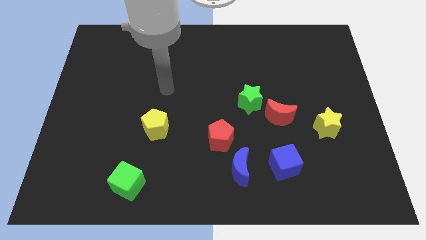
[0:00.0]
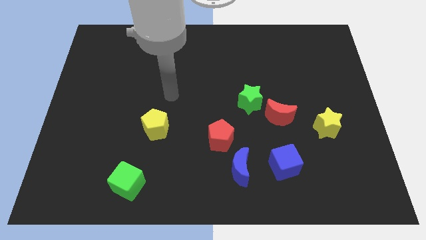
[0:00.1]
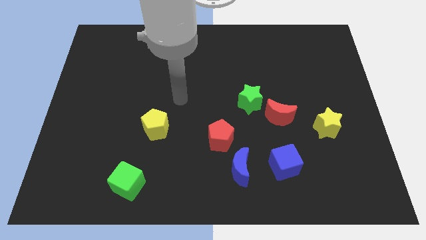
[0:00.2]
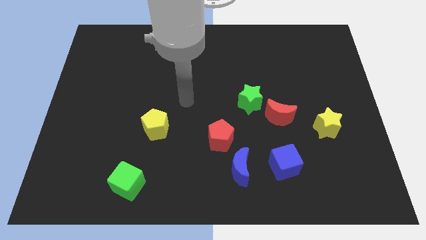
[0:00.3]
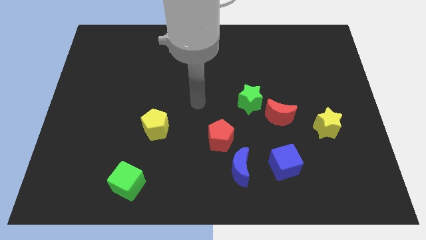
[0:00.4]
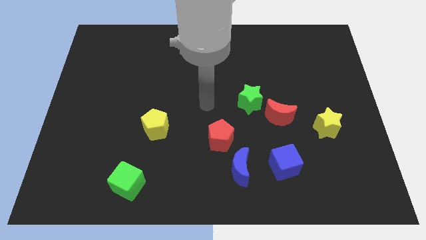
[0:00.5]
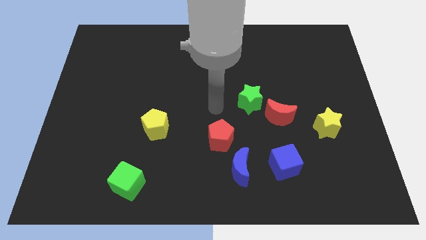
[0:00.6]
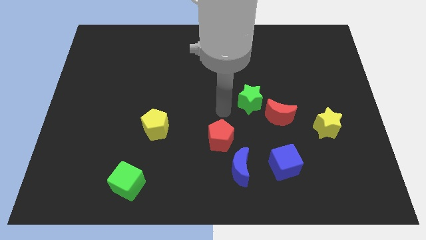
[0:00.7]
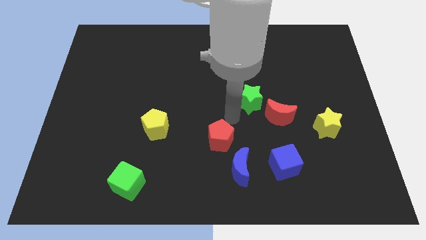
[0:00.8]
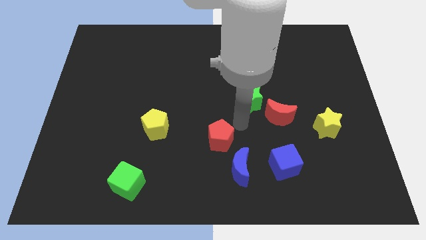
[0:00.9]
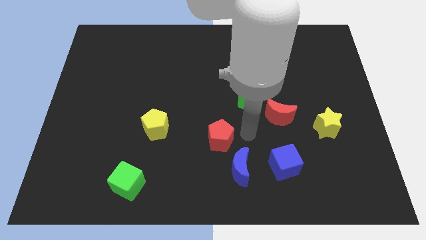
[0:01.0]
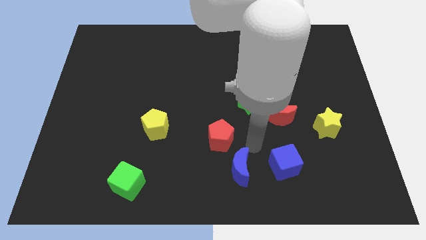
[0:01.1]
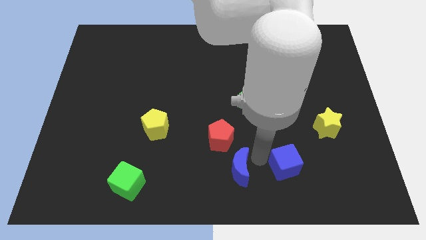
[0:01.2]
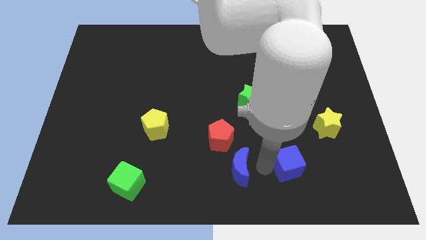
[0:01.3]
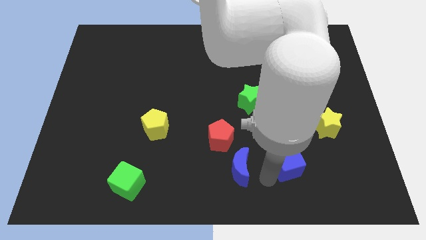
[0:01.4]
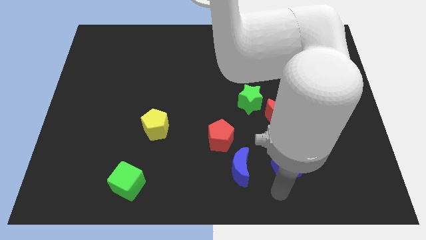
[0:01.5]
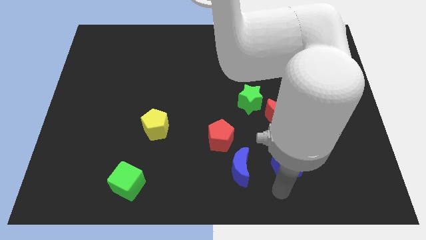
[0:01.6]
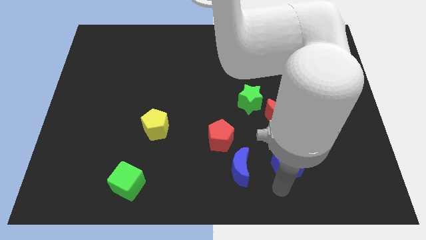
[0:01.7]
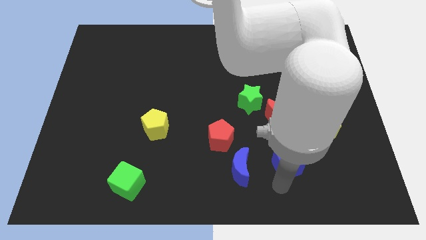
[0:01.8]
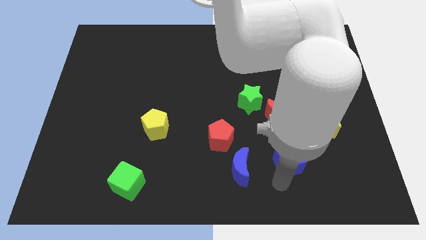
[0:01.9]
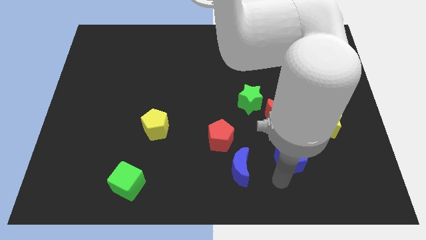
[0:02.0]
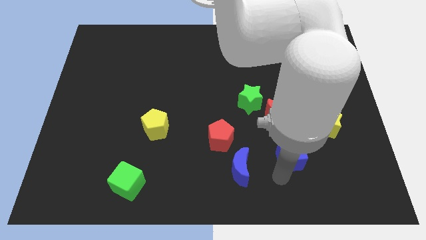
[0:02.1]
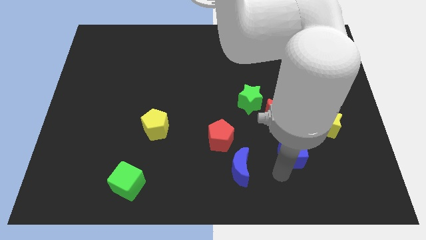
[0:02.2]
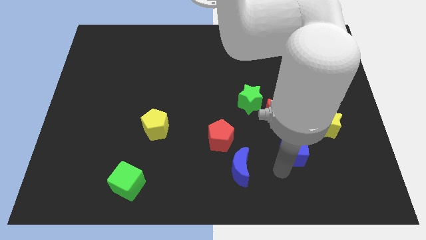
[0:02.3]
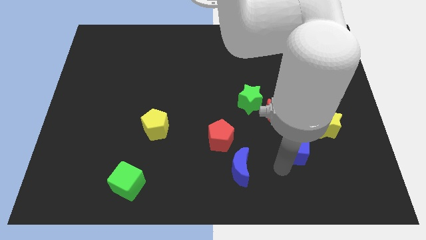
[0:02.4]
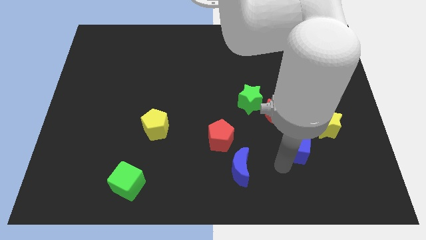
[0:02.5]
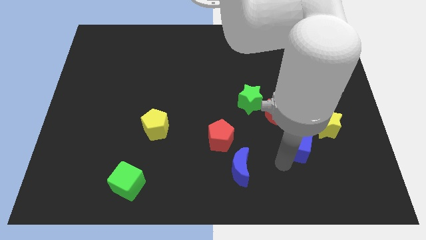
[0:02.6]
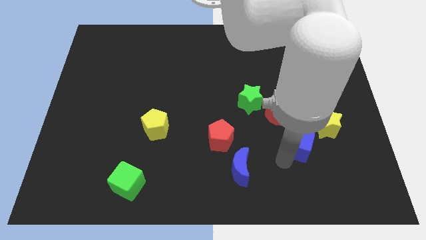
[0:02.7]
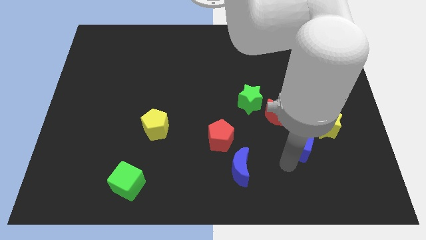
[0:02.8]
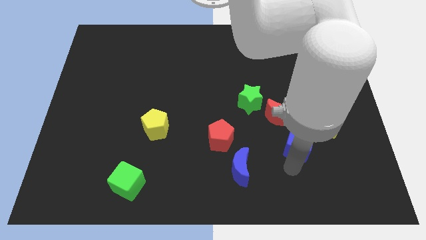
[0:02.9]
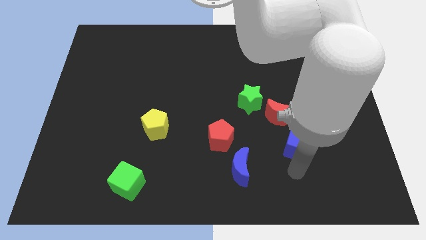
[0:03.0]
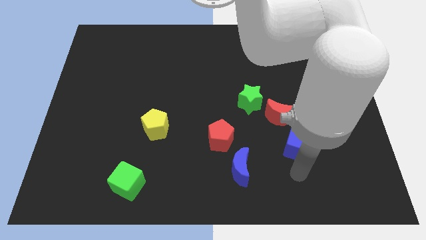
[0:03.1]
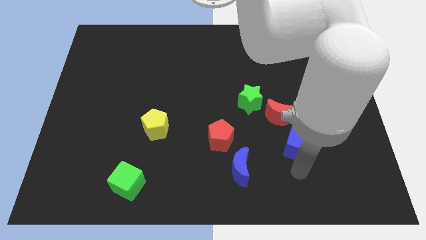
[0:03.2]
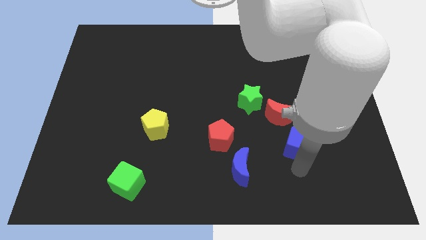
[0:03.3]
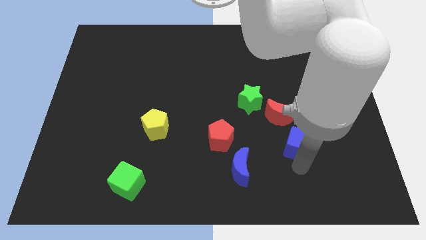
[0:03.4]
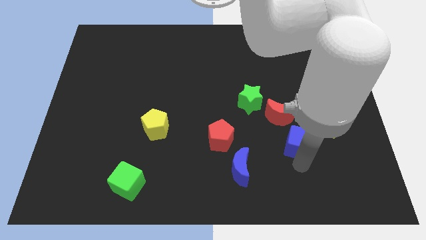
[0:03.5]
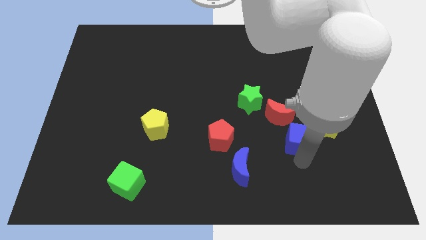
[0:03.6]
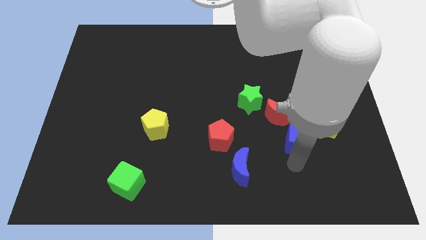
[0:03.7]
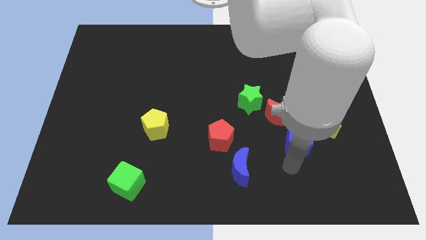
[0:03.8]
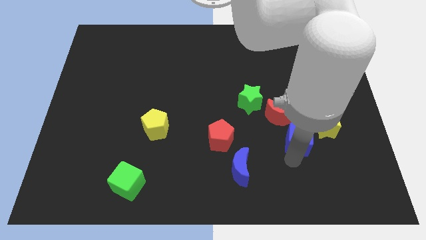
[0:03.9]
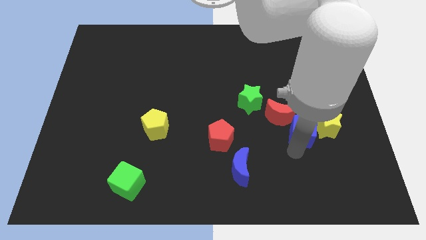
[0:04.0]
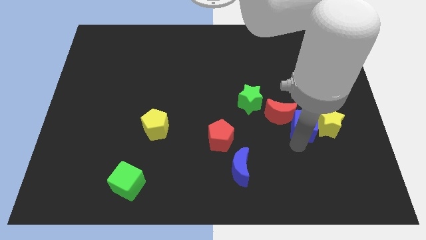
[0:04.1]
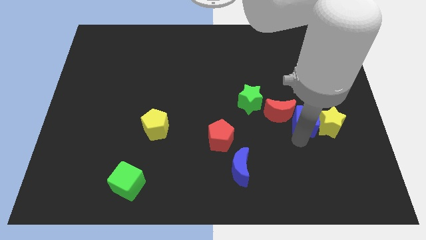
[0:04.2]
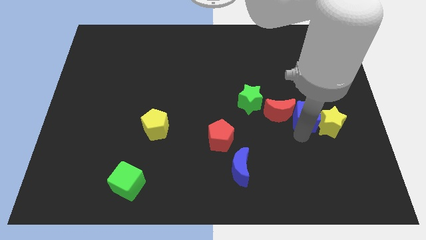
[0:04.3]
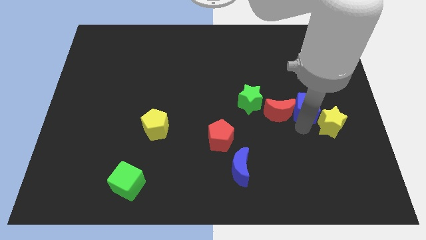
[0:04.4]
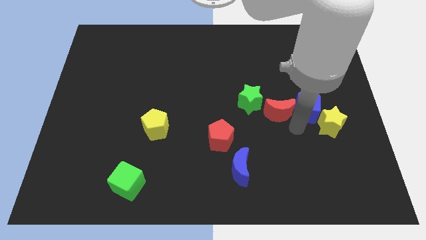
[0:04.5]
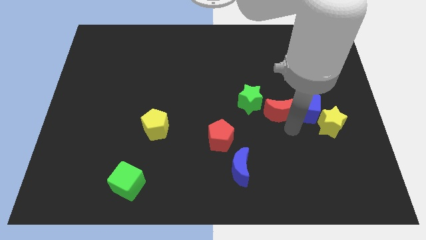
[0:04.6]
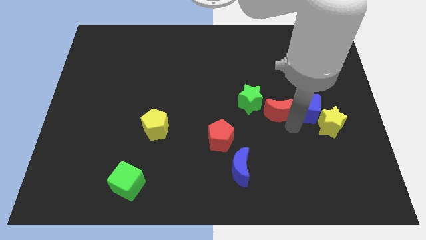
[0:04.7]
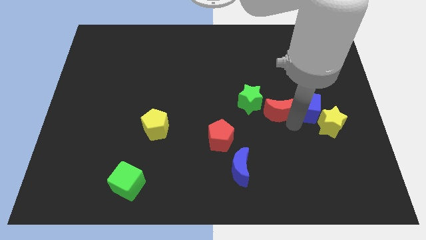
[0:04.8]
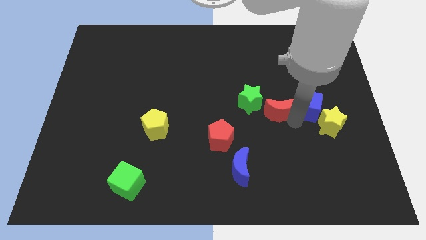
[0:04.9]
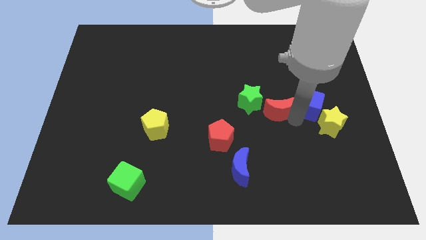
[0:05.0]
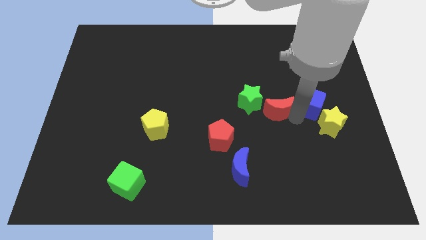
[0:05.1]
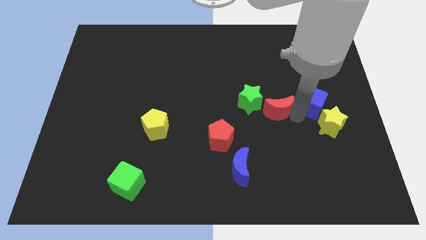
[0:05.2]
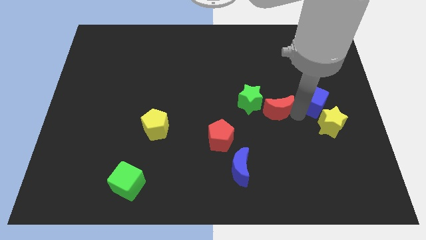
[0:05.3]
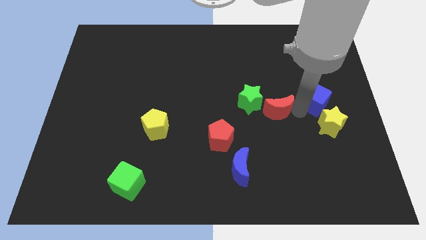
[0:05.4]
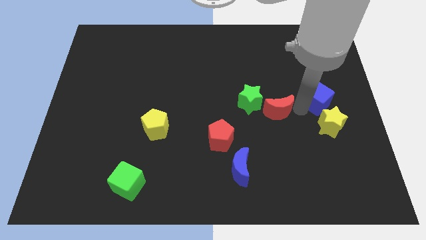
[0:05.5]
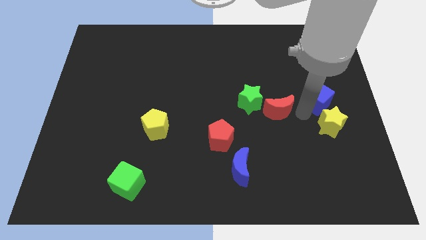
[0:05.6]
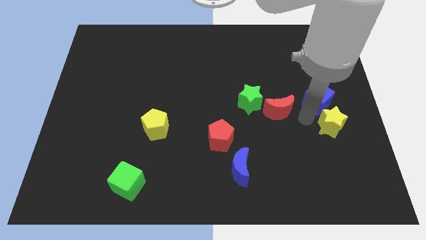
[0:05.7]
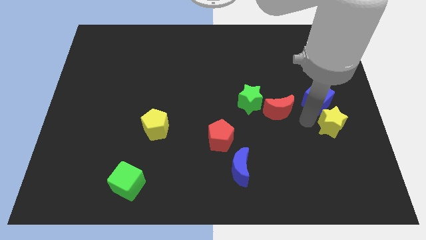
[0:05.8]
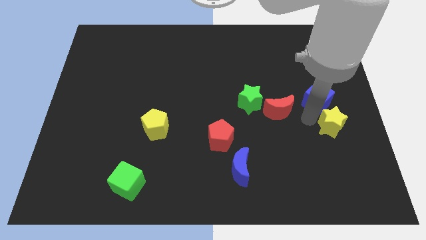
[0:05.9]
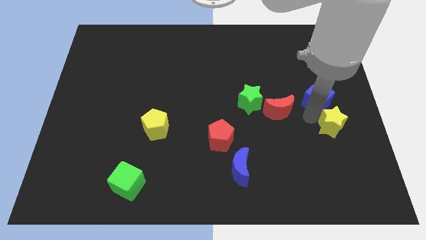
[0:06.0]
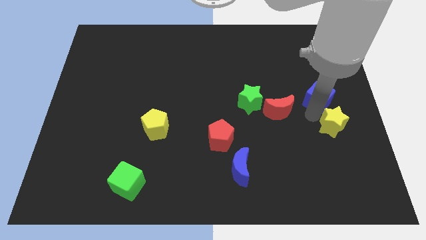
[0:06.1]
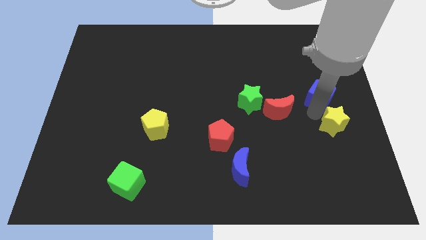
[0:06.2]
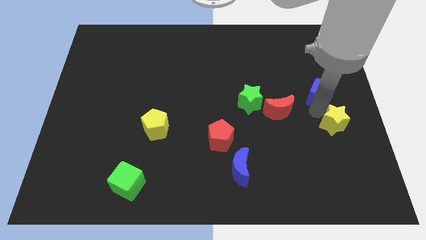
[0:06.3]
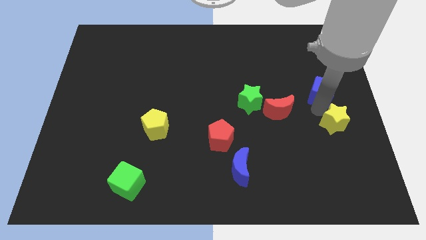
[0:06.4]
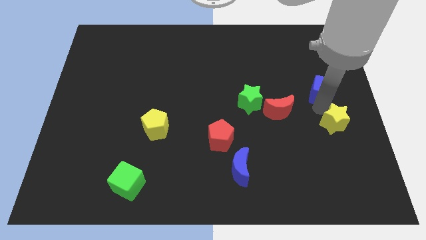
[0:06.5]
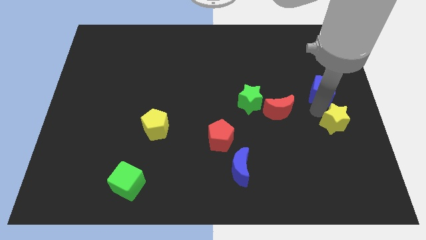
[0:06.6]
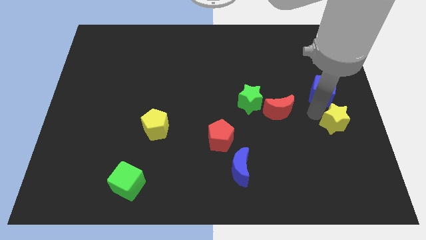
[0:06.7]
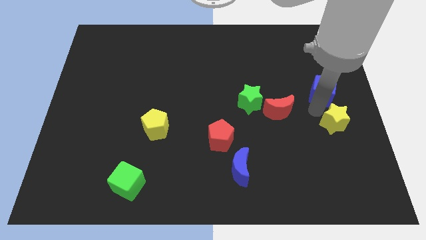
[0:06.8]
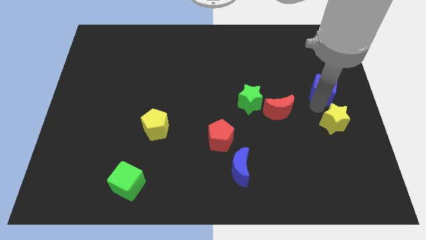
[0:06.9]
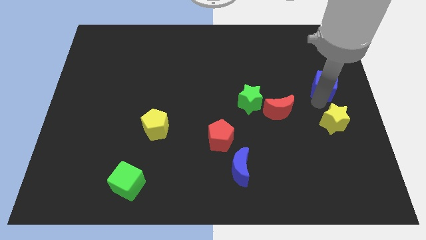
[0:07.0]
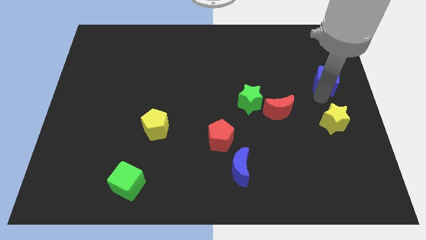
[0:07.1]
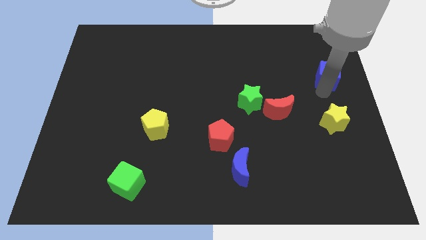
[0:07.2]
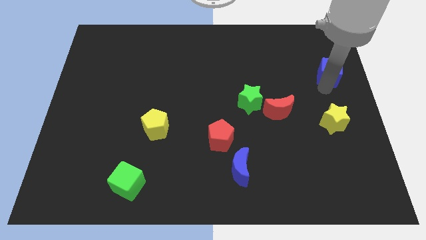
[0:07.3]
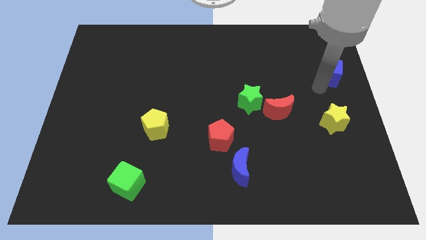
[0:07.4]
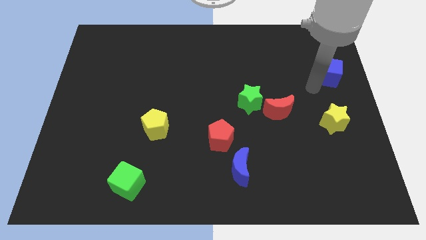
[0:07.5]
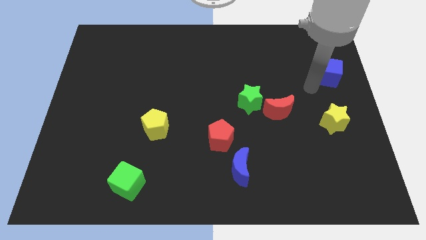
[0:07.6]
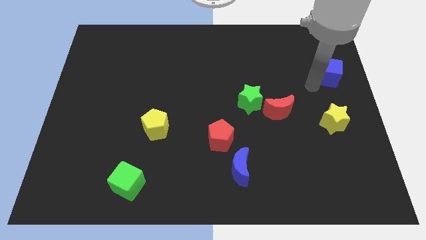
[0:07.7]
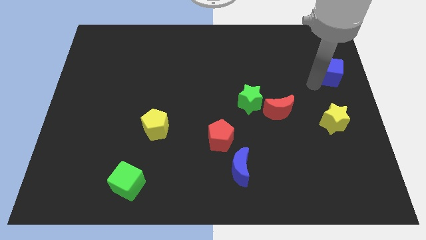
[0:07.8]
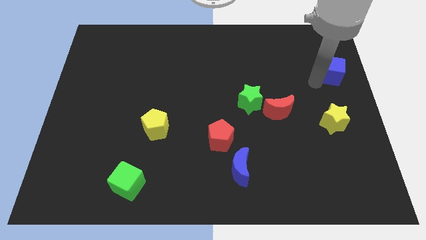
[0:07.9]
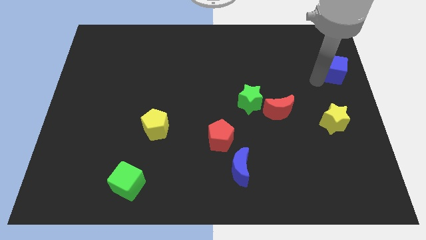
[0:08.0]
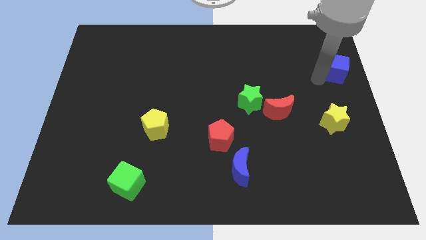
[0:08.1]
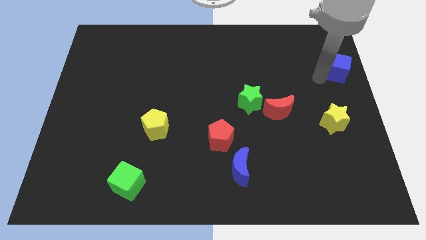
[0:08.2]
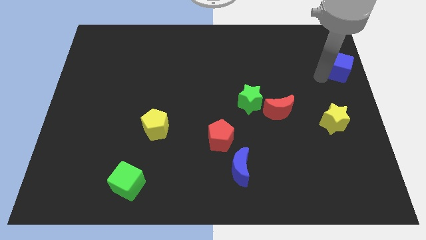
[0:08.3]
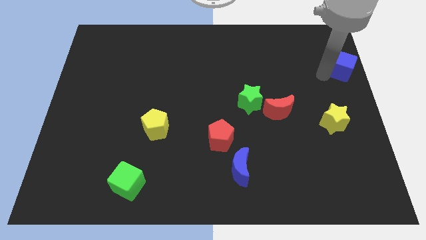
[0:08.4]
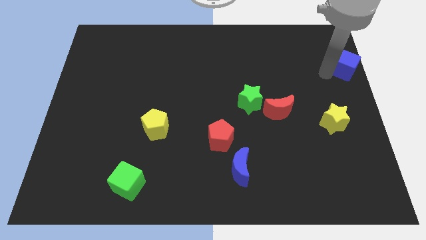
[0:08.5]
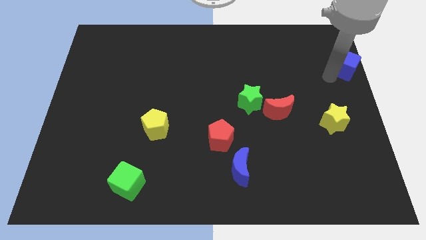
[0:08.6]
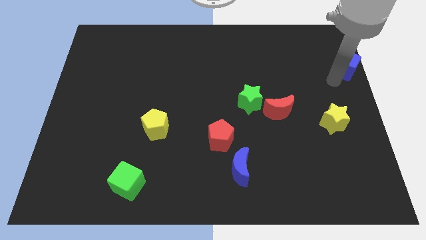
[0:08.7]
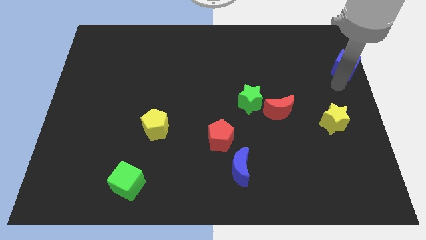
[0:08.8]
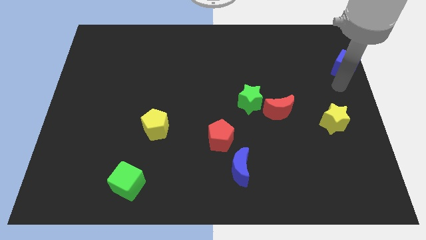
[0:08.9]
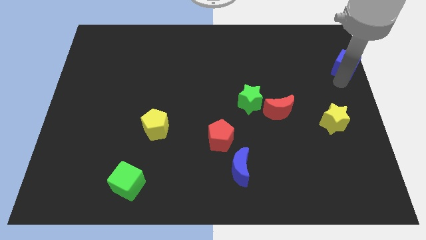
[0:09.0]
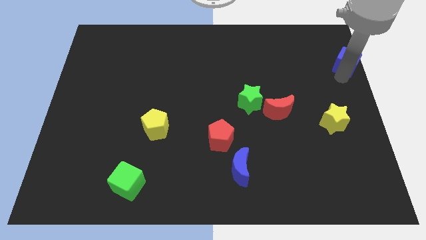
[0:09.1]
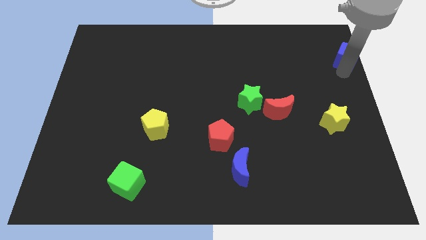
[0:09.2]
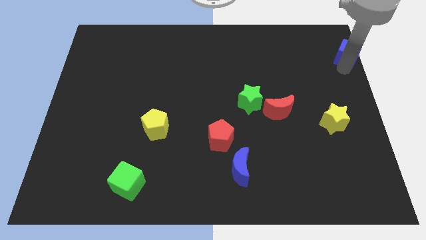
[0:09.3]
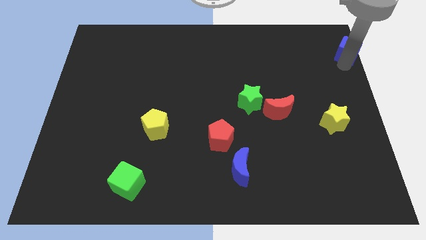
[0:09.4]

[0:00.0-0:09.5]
slide the blue cube to the top right corner
